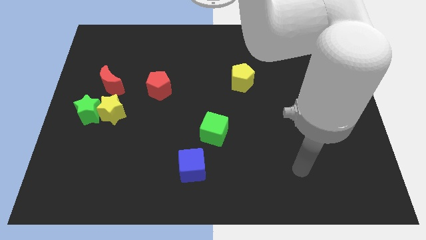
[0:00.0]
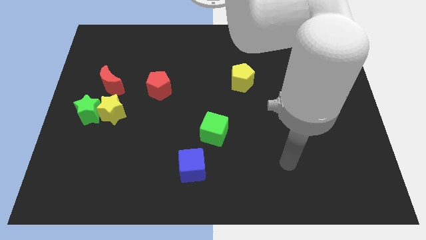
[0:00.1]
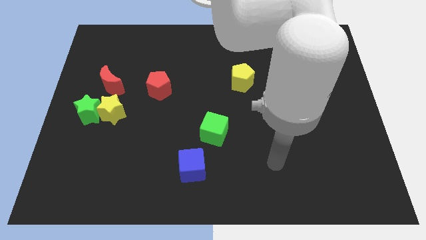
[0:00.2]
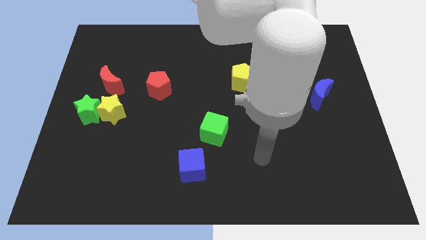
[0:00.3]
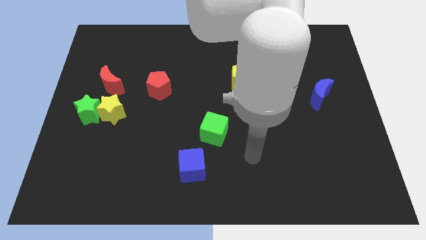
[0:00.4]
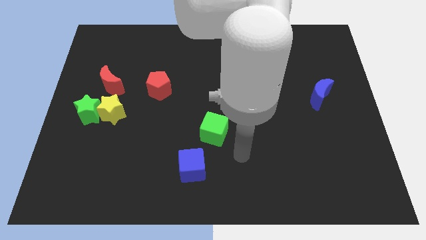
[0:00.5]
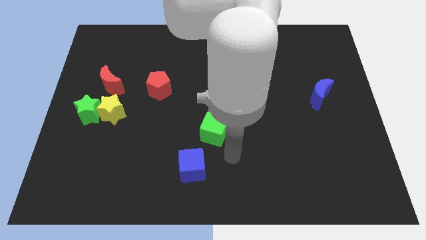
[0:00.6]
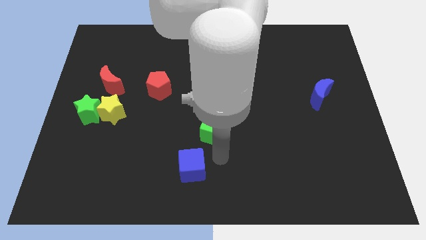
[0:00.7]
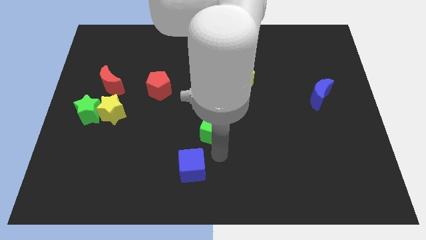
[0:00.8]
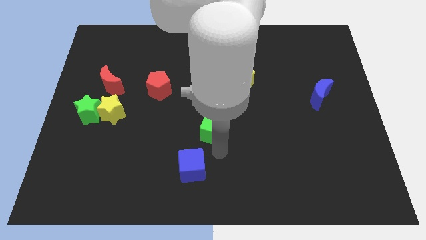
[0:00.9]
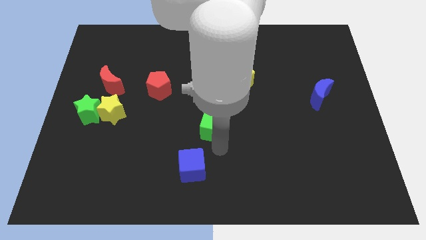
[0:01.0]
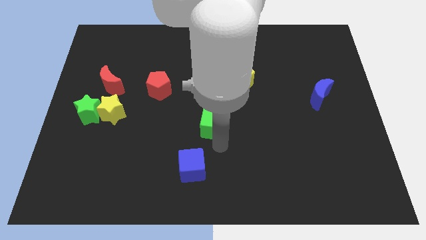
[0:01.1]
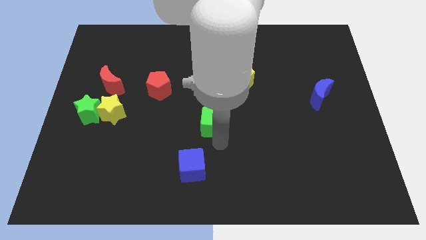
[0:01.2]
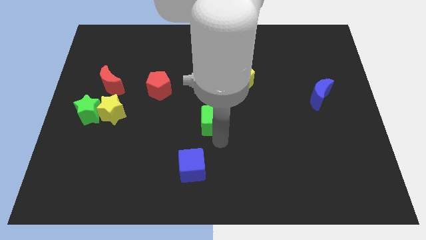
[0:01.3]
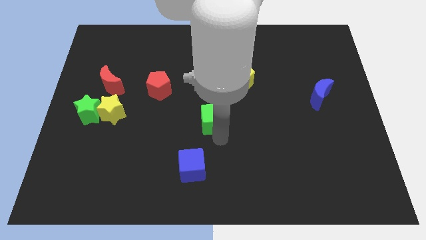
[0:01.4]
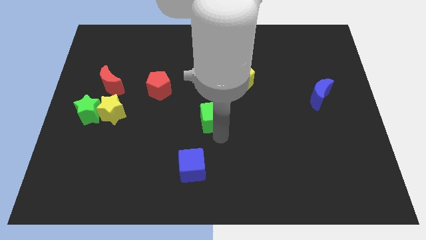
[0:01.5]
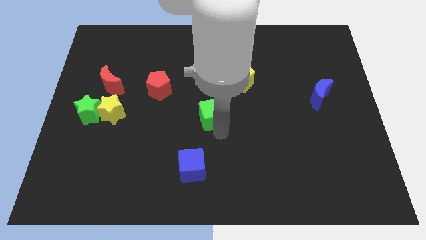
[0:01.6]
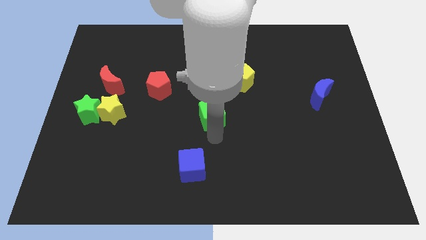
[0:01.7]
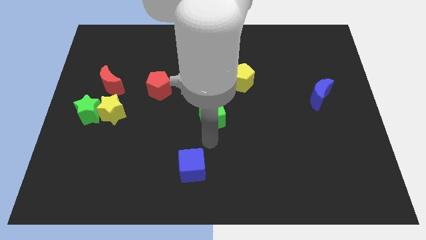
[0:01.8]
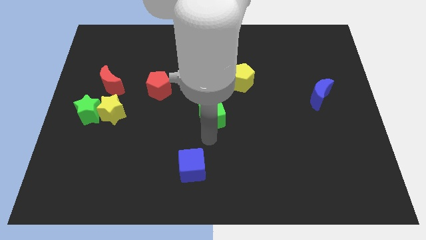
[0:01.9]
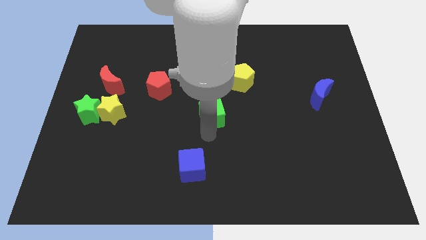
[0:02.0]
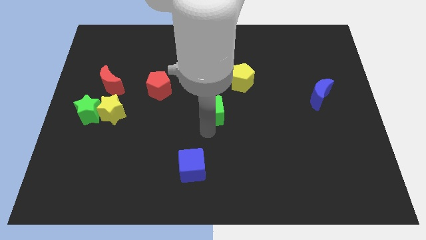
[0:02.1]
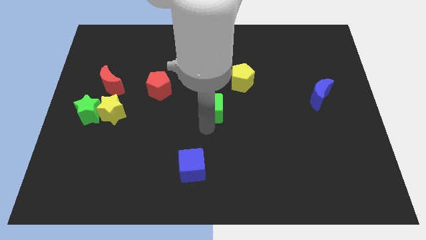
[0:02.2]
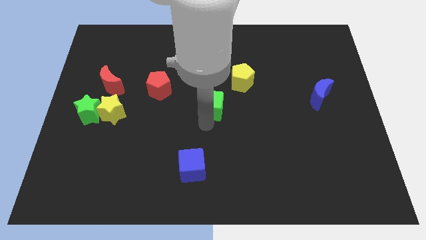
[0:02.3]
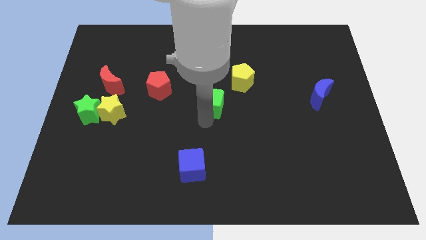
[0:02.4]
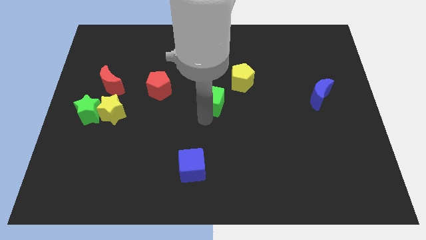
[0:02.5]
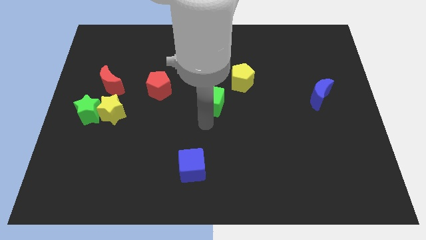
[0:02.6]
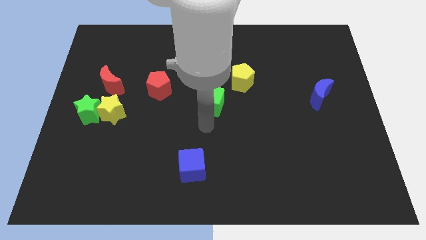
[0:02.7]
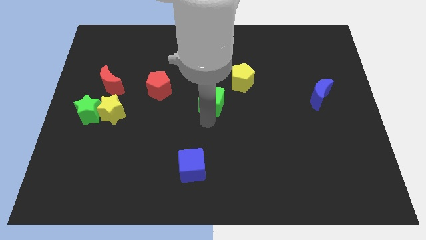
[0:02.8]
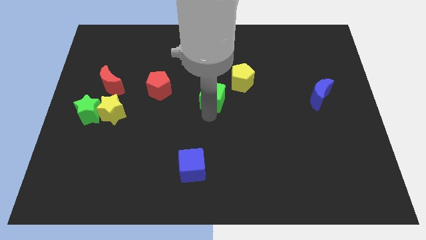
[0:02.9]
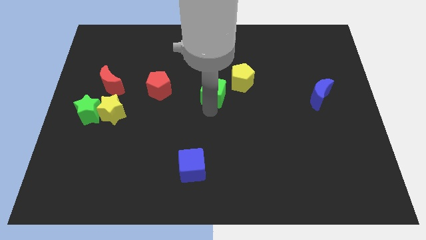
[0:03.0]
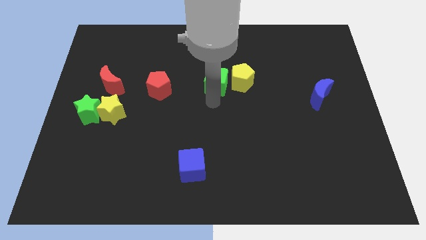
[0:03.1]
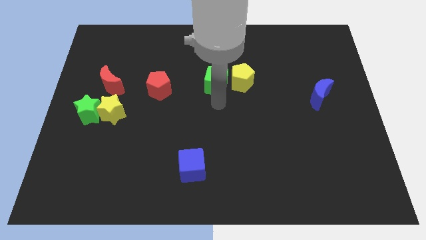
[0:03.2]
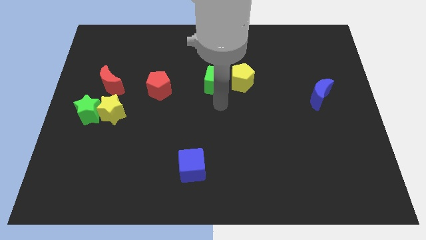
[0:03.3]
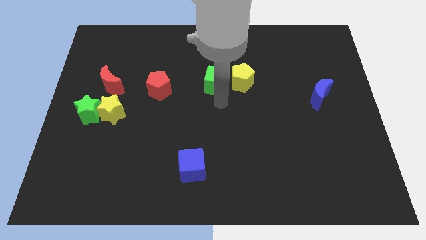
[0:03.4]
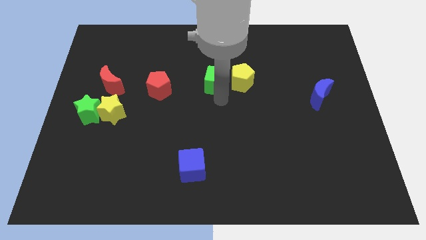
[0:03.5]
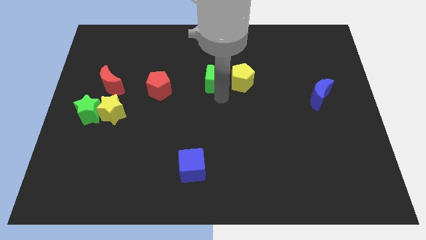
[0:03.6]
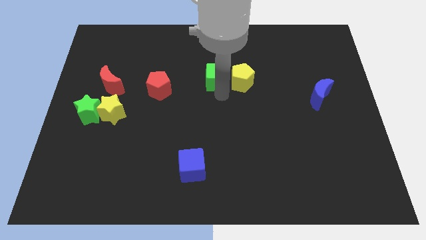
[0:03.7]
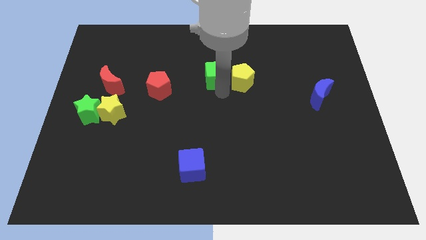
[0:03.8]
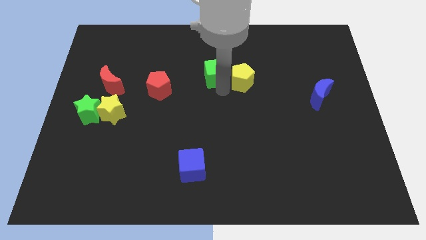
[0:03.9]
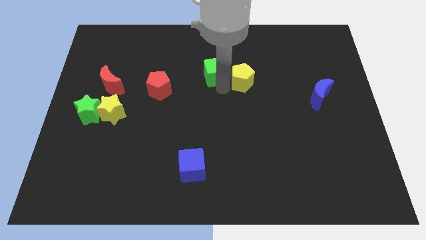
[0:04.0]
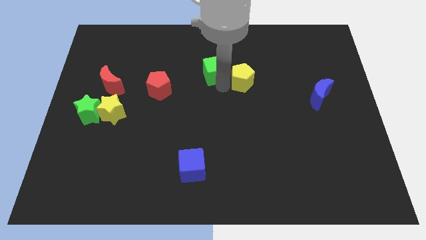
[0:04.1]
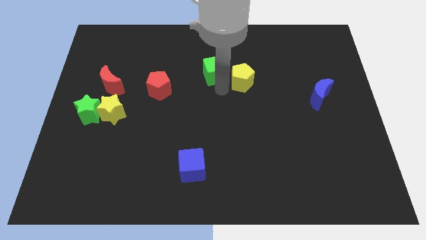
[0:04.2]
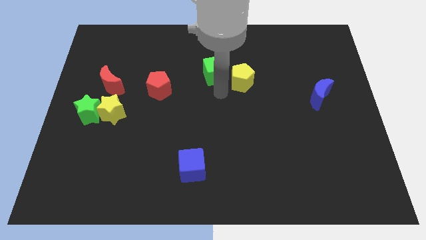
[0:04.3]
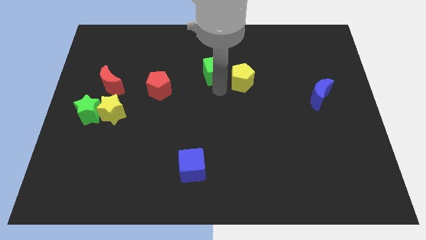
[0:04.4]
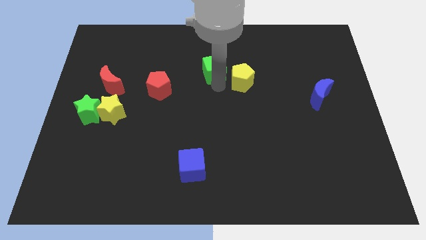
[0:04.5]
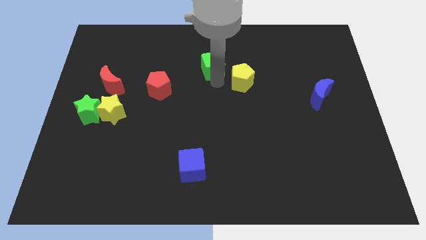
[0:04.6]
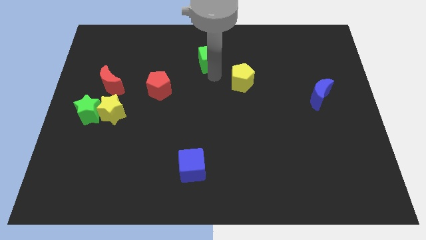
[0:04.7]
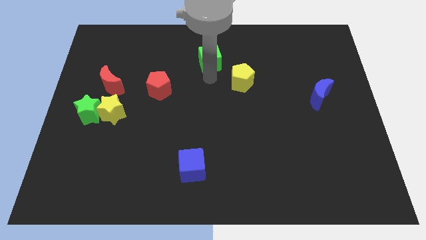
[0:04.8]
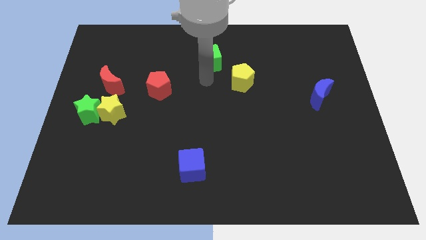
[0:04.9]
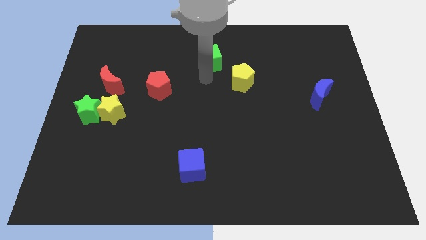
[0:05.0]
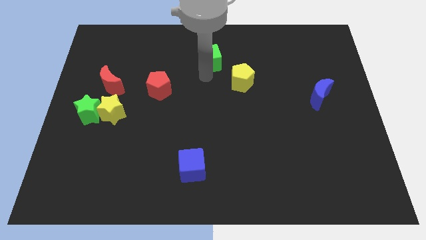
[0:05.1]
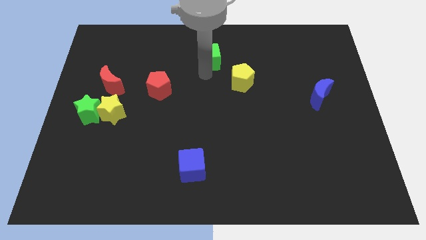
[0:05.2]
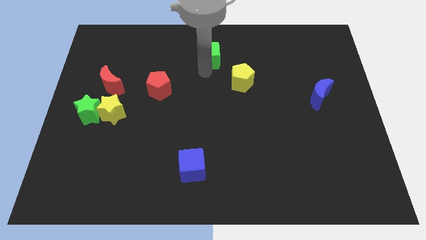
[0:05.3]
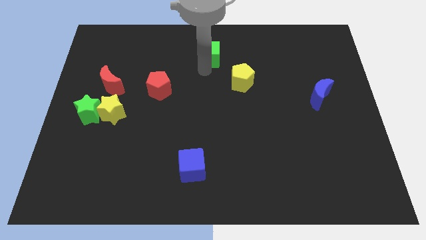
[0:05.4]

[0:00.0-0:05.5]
move the green cube to the top side

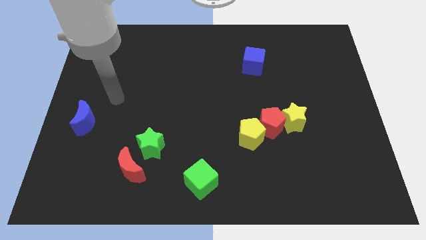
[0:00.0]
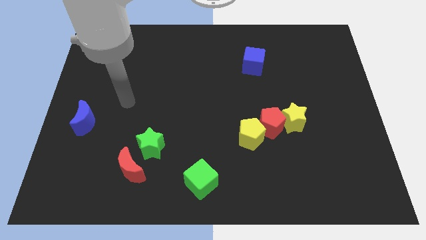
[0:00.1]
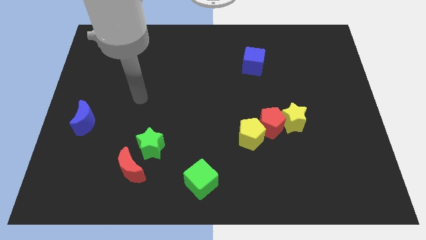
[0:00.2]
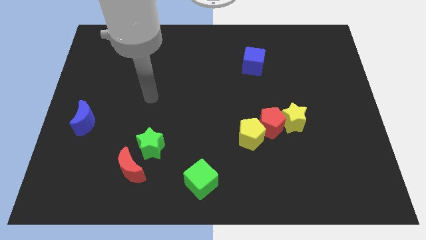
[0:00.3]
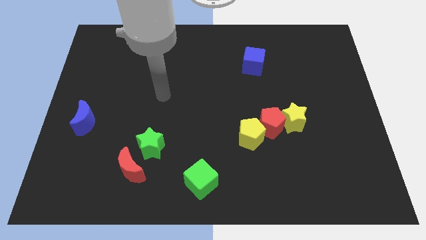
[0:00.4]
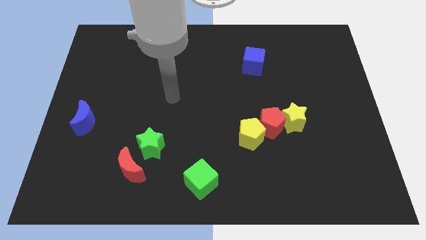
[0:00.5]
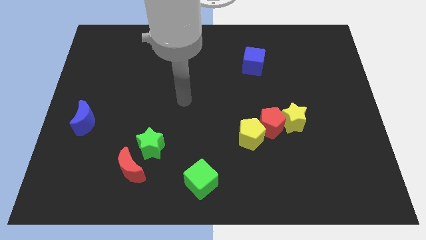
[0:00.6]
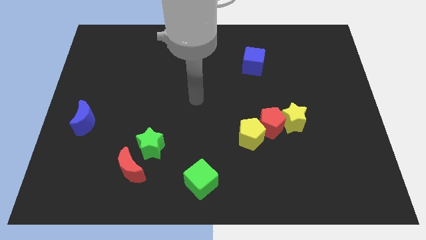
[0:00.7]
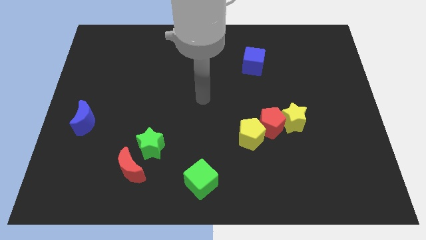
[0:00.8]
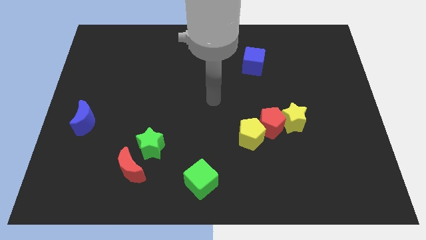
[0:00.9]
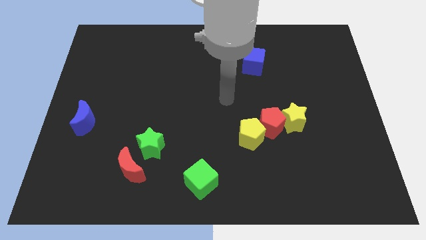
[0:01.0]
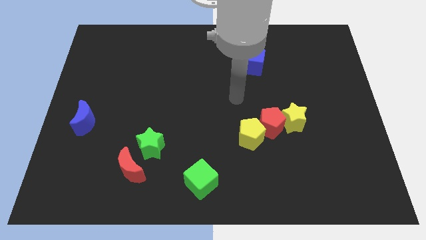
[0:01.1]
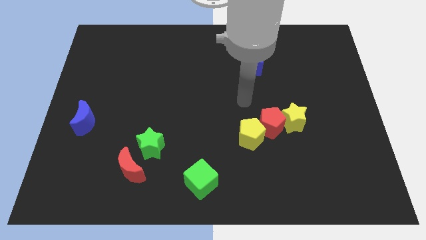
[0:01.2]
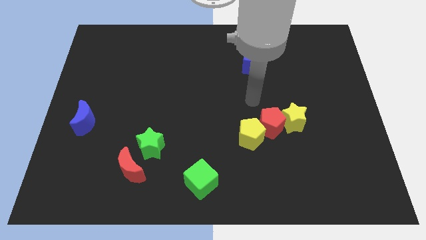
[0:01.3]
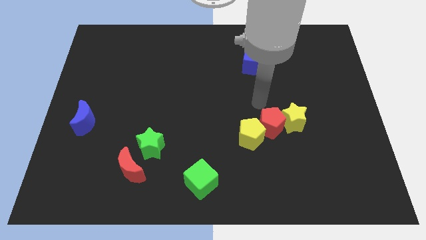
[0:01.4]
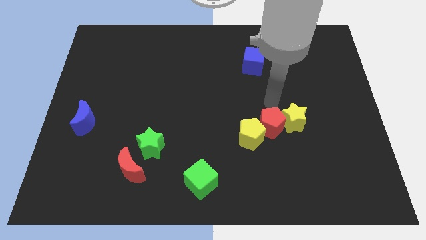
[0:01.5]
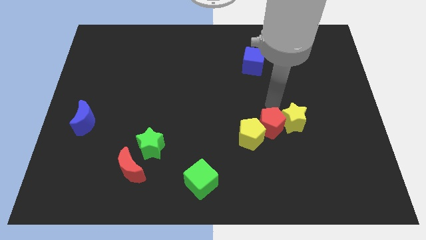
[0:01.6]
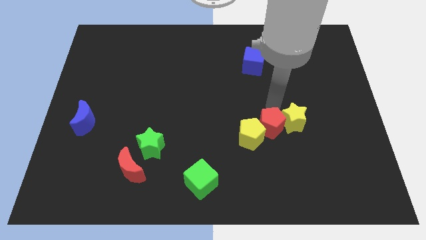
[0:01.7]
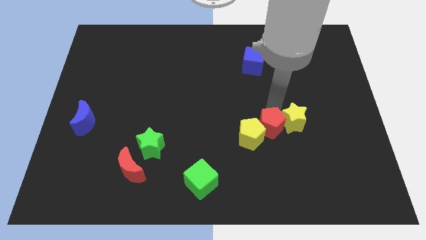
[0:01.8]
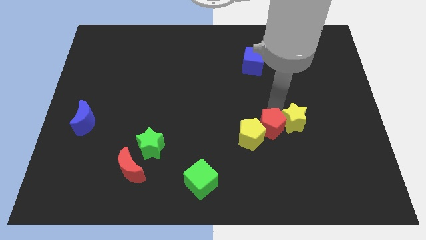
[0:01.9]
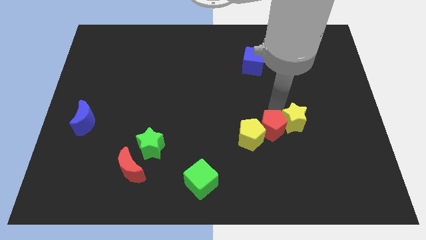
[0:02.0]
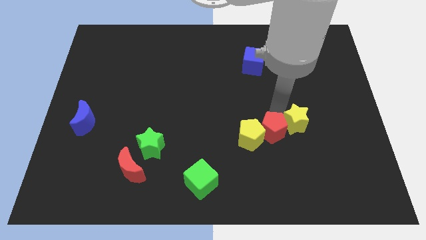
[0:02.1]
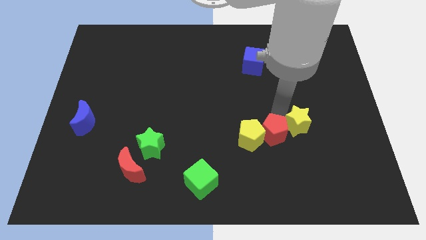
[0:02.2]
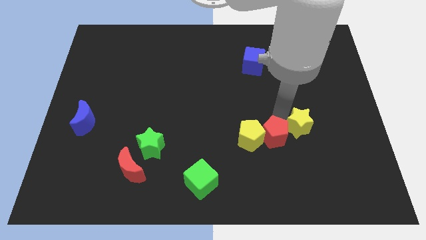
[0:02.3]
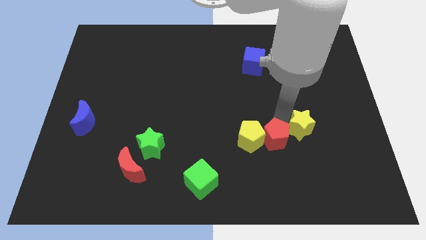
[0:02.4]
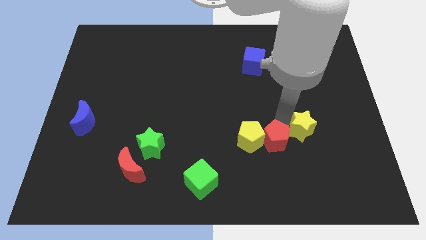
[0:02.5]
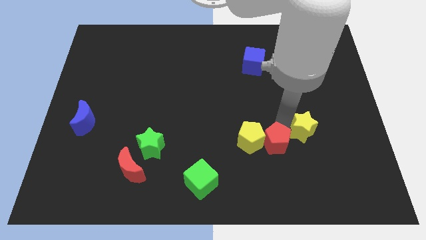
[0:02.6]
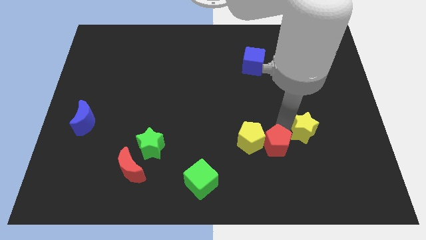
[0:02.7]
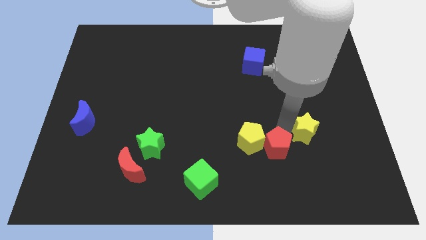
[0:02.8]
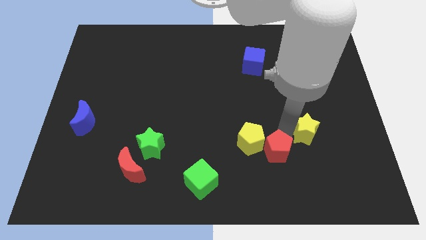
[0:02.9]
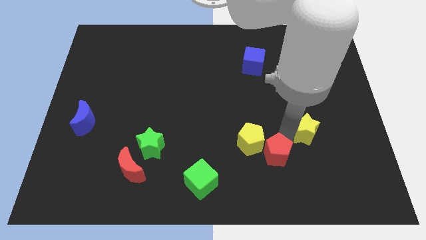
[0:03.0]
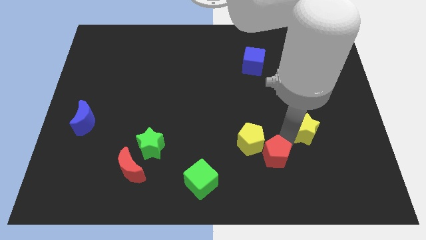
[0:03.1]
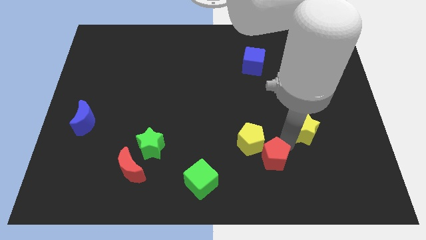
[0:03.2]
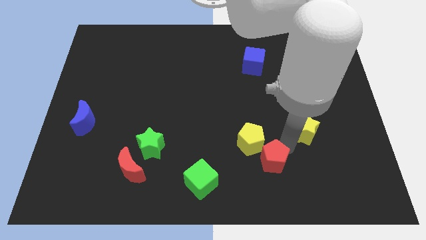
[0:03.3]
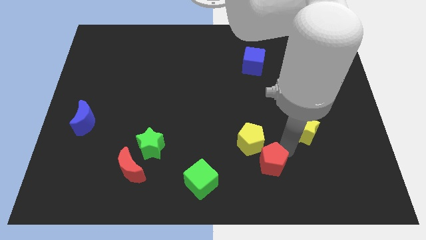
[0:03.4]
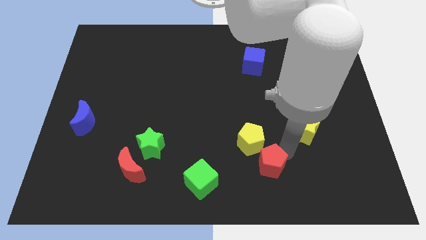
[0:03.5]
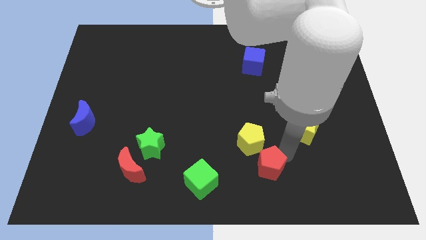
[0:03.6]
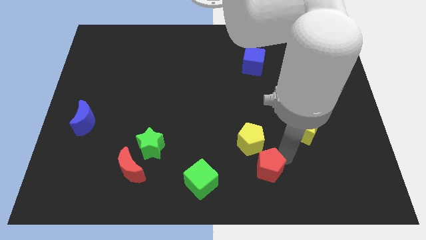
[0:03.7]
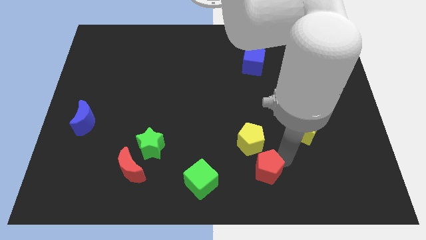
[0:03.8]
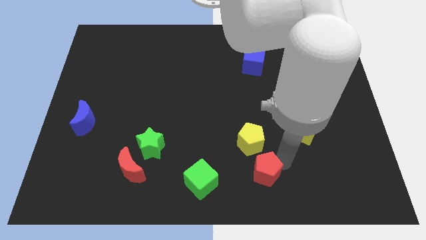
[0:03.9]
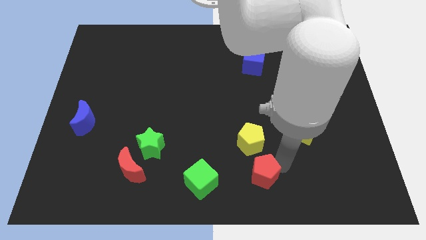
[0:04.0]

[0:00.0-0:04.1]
put the red pentagon to the bottom
